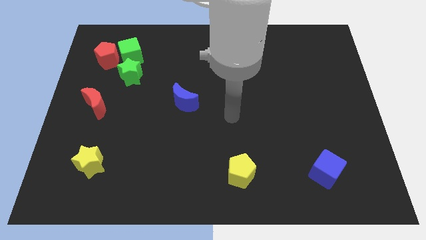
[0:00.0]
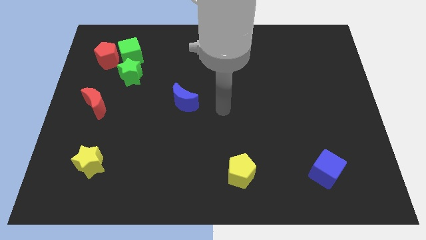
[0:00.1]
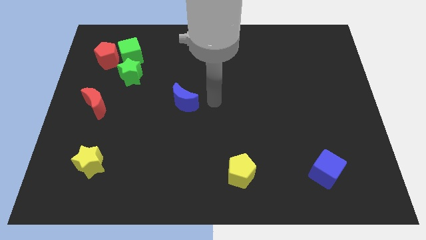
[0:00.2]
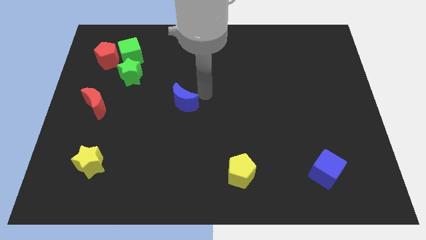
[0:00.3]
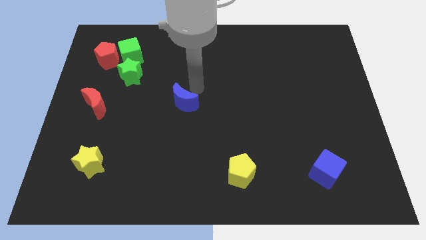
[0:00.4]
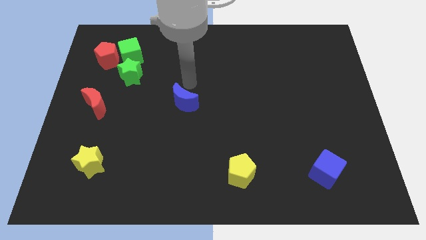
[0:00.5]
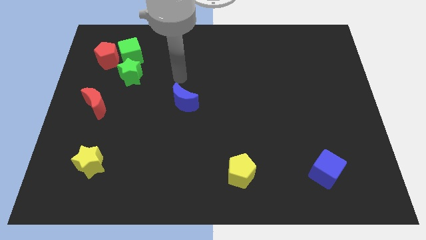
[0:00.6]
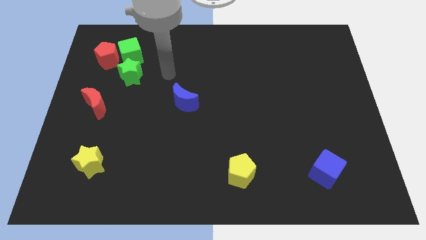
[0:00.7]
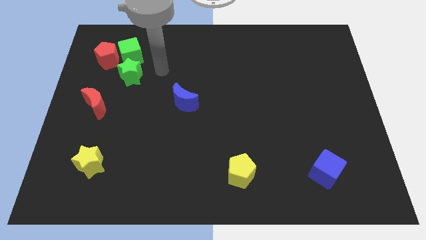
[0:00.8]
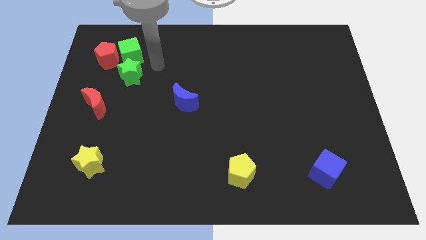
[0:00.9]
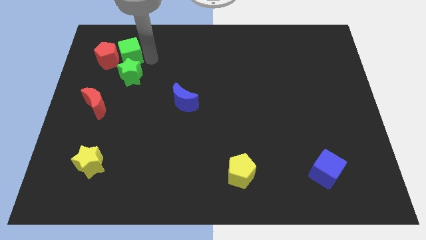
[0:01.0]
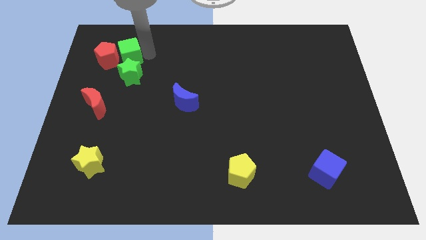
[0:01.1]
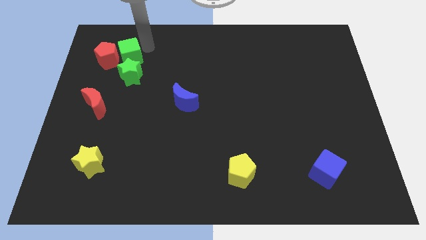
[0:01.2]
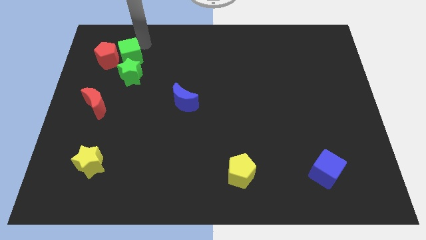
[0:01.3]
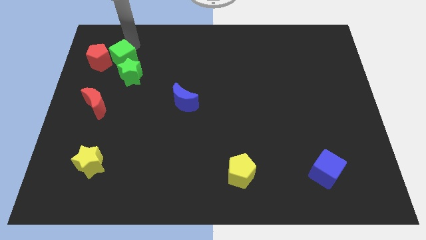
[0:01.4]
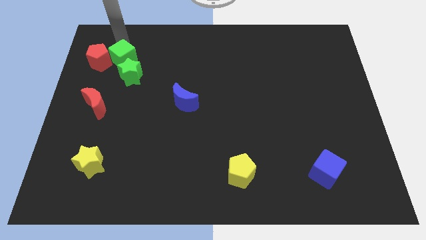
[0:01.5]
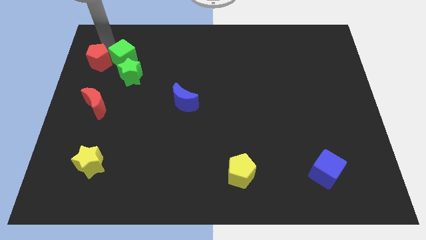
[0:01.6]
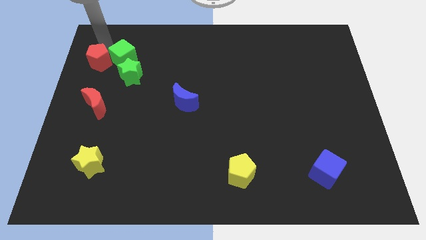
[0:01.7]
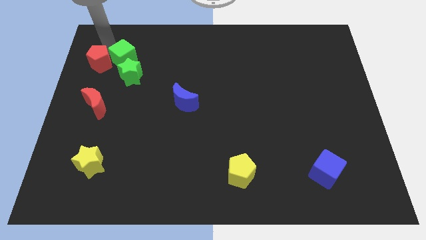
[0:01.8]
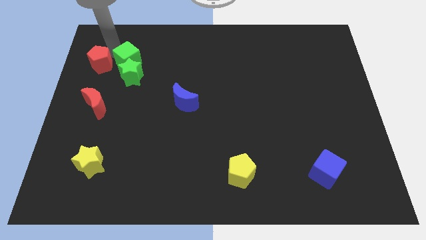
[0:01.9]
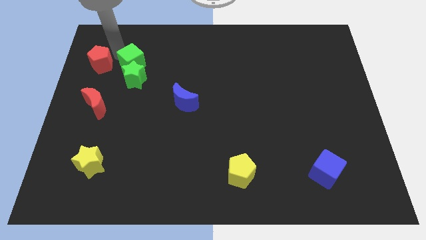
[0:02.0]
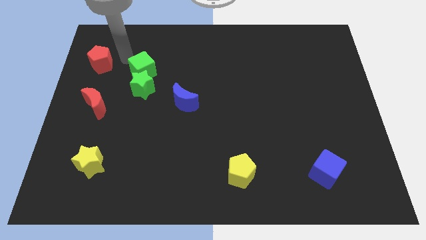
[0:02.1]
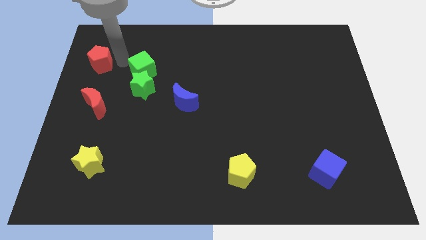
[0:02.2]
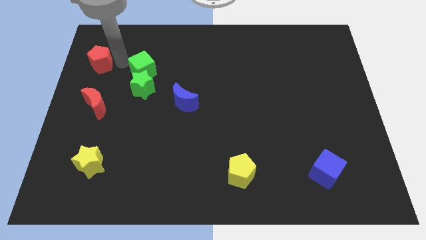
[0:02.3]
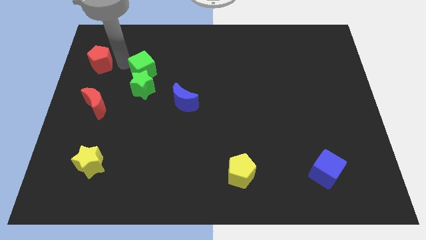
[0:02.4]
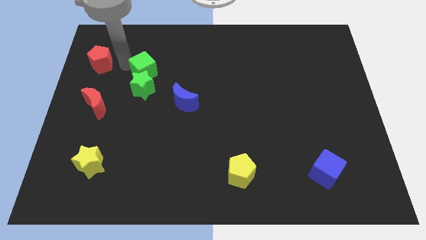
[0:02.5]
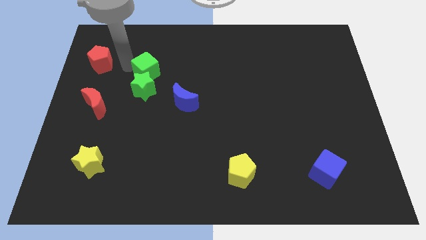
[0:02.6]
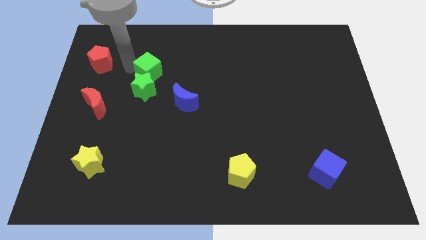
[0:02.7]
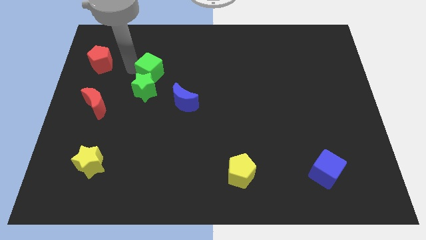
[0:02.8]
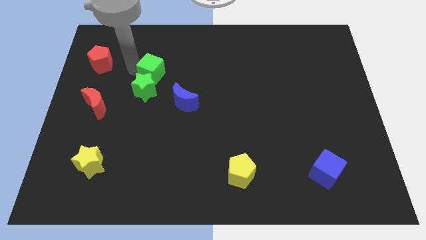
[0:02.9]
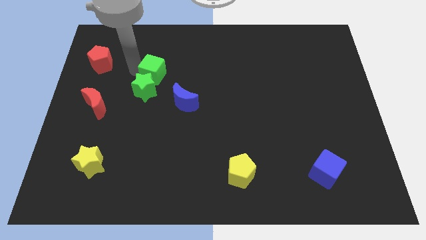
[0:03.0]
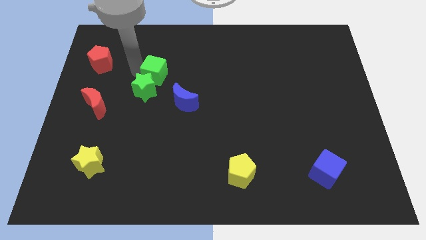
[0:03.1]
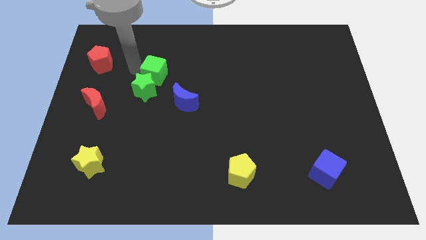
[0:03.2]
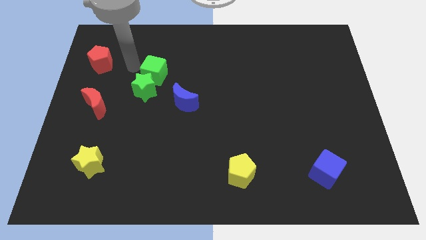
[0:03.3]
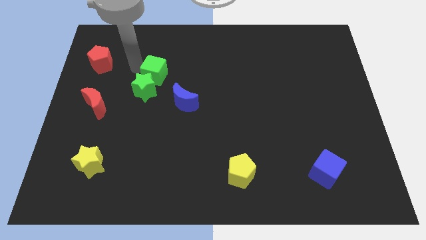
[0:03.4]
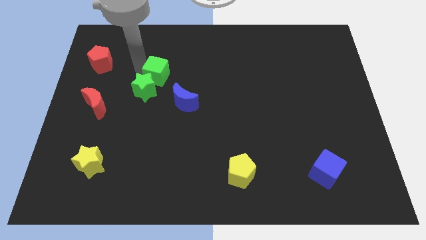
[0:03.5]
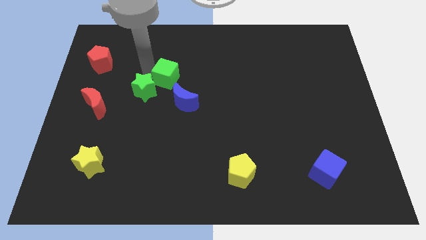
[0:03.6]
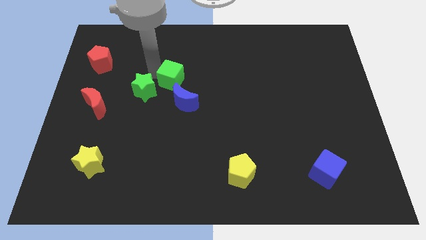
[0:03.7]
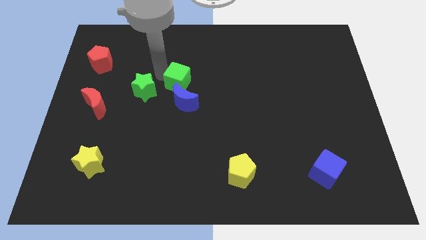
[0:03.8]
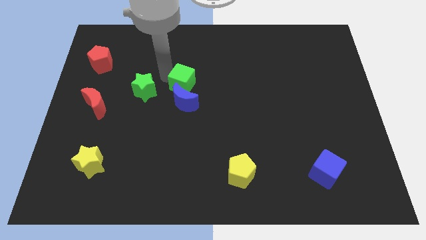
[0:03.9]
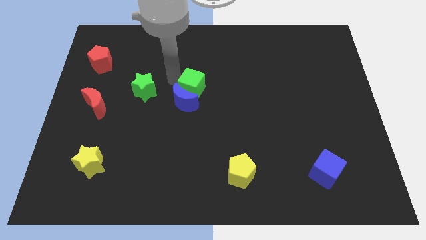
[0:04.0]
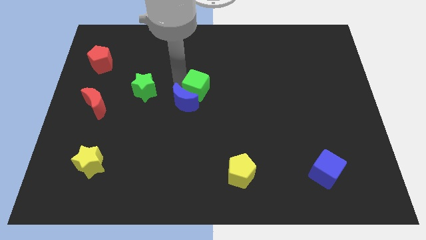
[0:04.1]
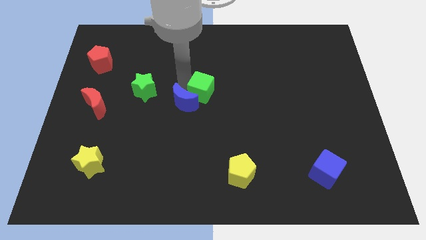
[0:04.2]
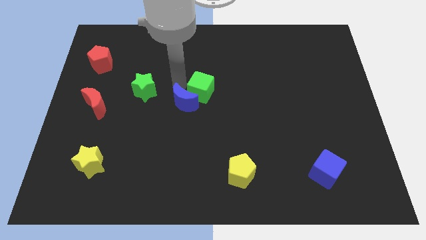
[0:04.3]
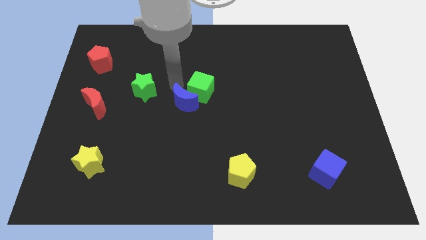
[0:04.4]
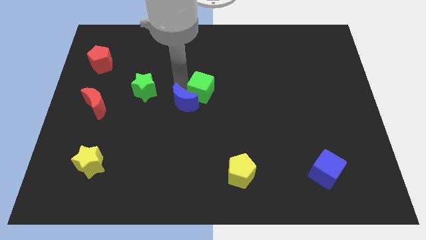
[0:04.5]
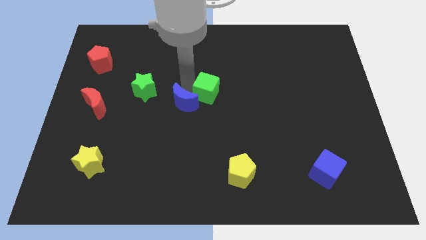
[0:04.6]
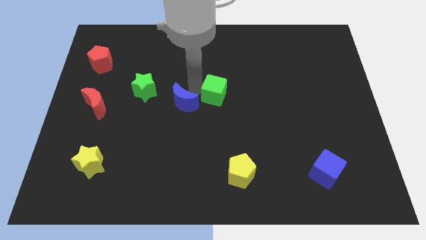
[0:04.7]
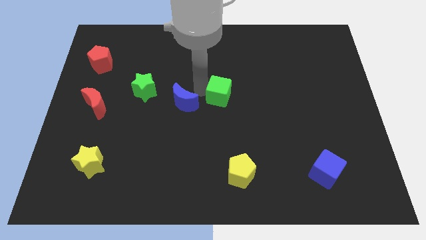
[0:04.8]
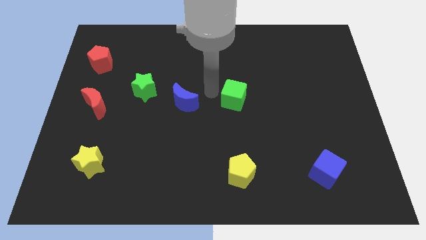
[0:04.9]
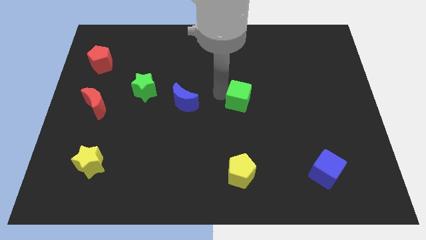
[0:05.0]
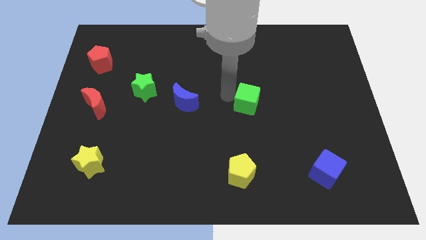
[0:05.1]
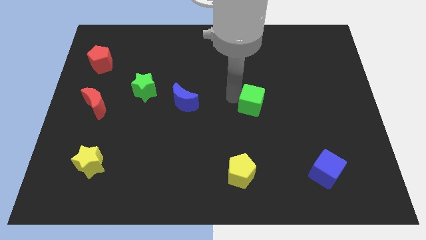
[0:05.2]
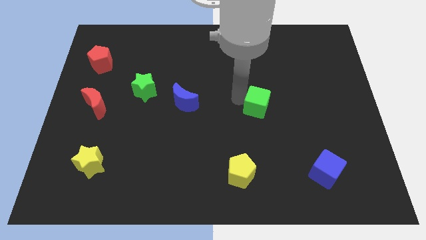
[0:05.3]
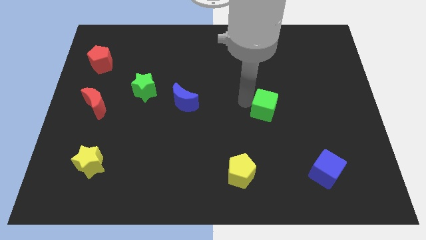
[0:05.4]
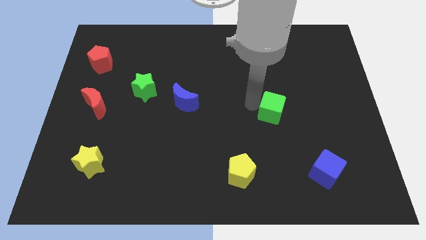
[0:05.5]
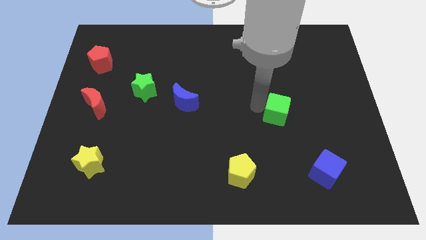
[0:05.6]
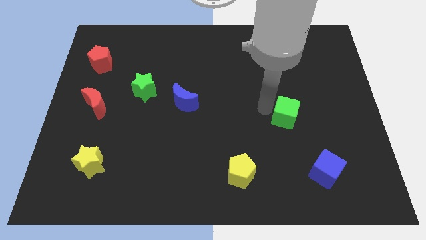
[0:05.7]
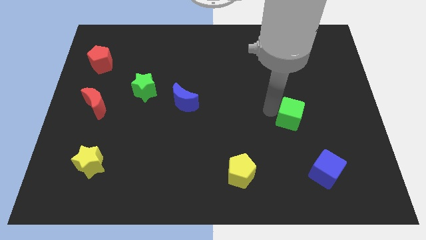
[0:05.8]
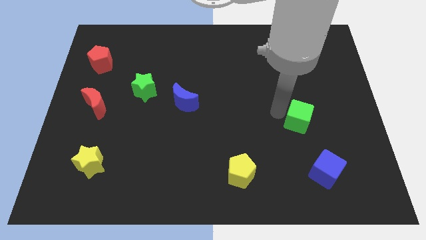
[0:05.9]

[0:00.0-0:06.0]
push the green cube to the top of the blue cube
